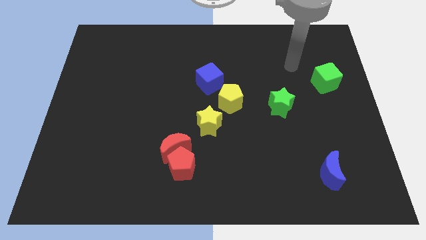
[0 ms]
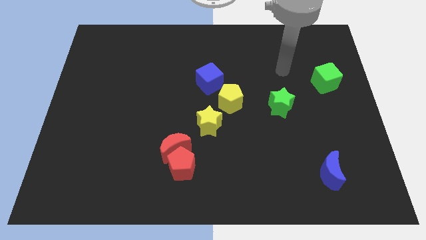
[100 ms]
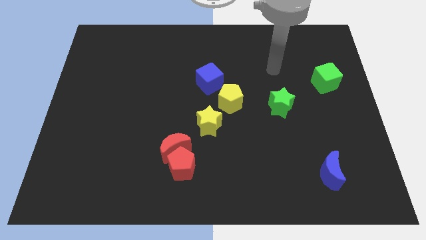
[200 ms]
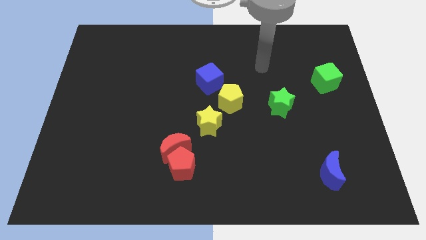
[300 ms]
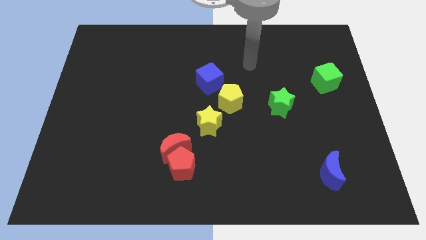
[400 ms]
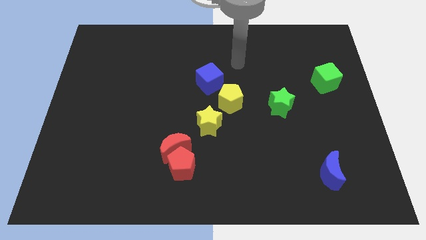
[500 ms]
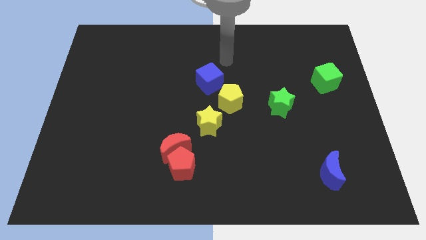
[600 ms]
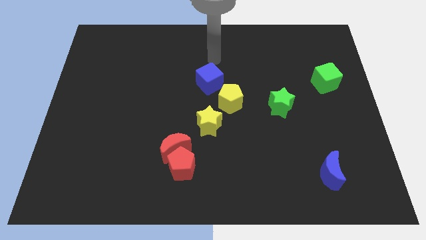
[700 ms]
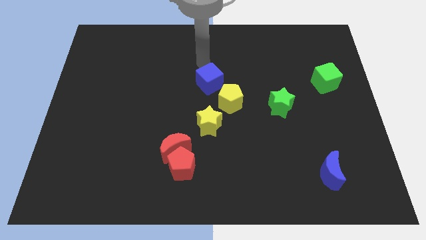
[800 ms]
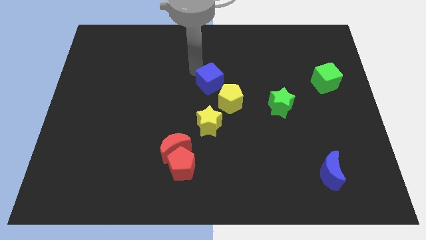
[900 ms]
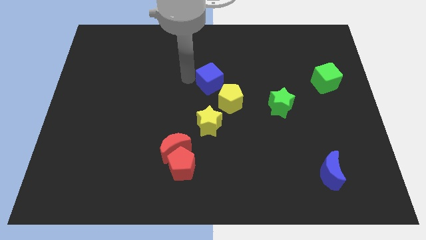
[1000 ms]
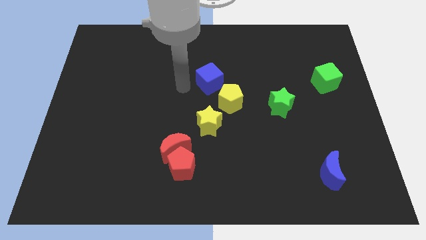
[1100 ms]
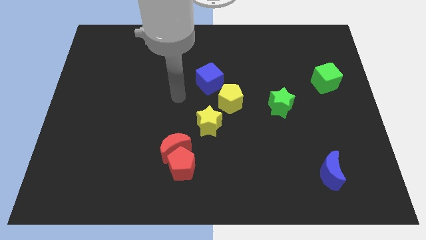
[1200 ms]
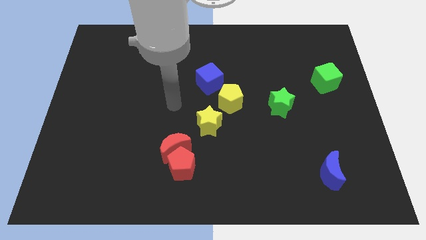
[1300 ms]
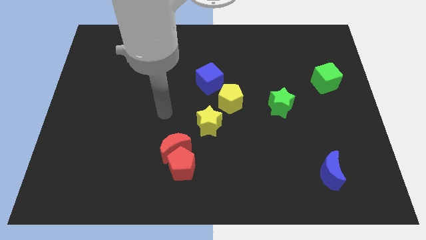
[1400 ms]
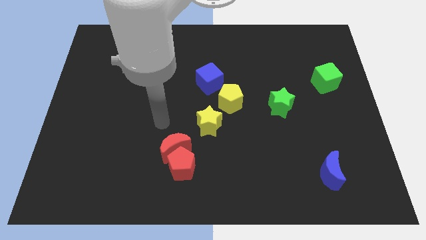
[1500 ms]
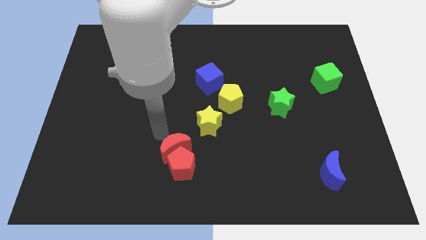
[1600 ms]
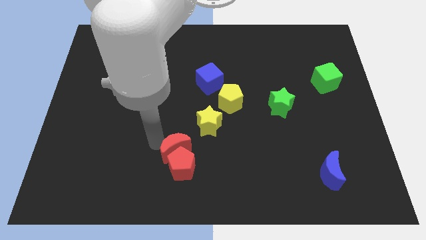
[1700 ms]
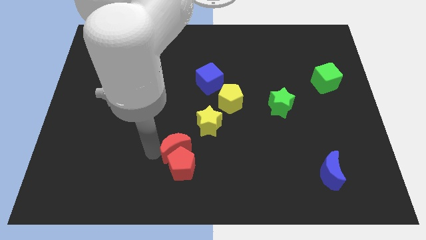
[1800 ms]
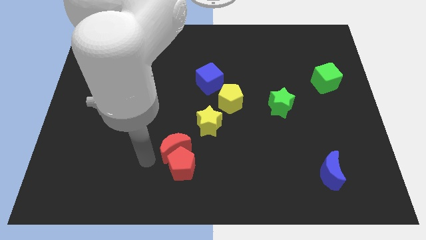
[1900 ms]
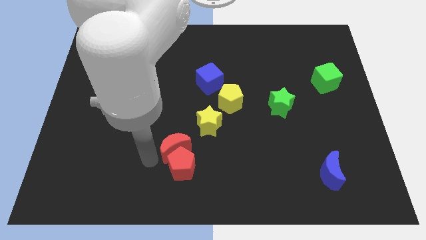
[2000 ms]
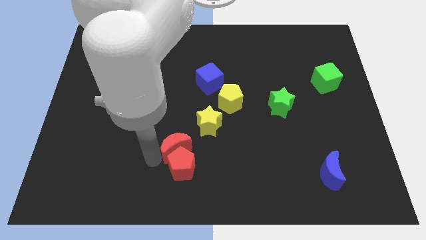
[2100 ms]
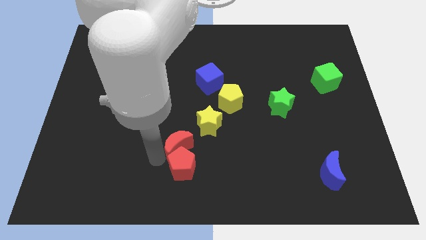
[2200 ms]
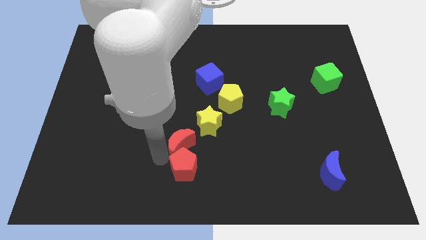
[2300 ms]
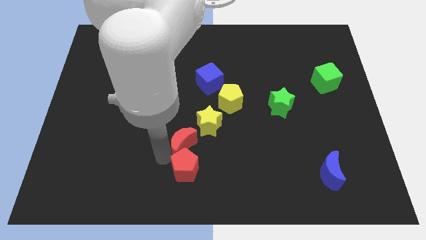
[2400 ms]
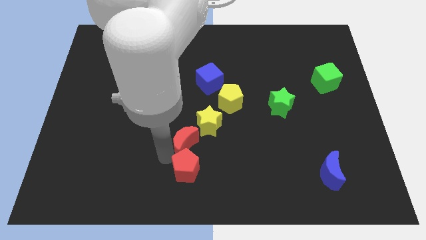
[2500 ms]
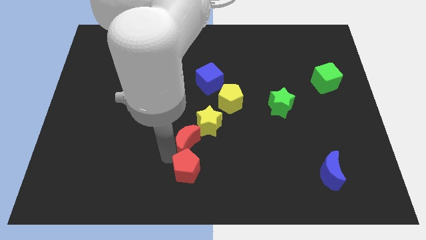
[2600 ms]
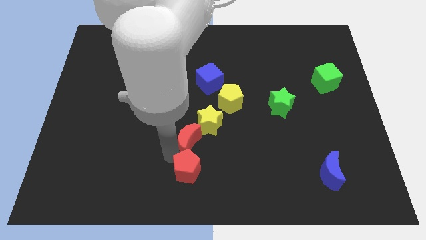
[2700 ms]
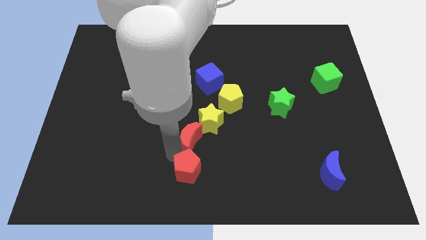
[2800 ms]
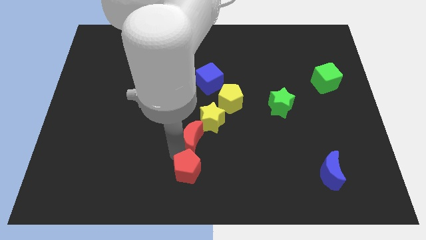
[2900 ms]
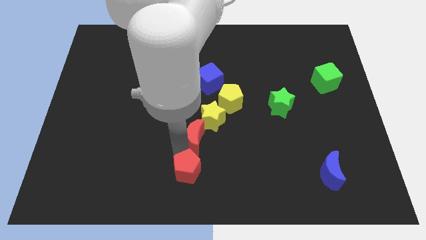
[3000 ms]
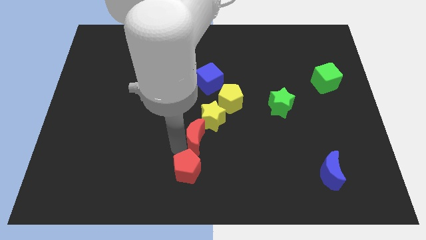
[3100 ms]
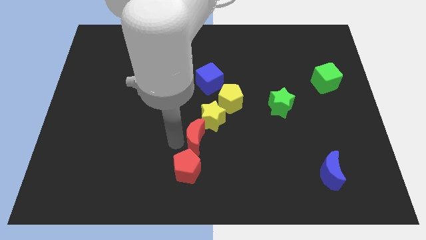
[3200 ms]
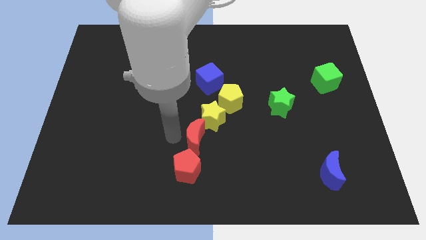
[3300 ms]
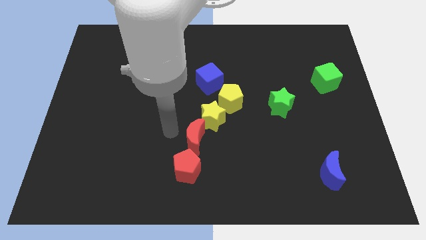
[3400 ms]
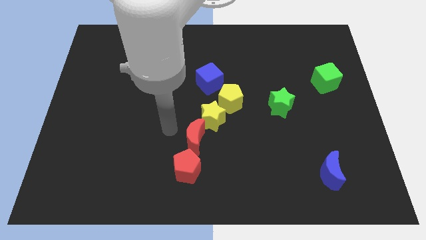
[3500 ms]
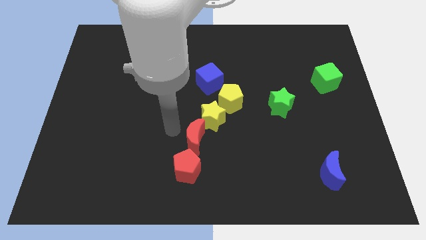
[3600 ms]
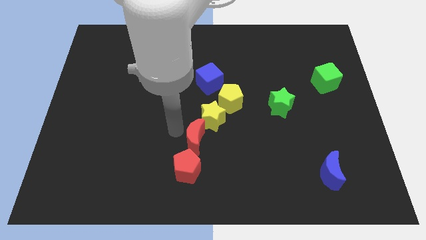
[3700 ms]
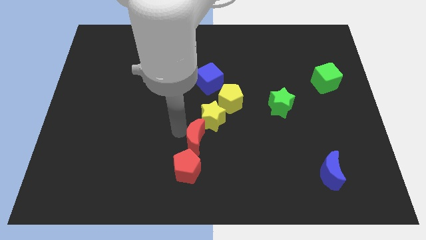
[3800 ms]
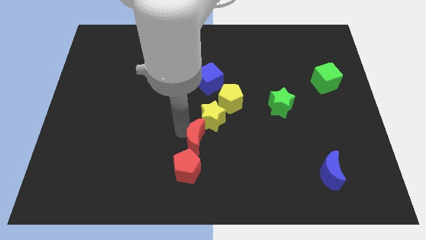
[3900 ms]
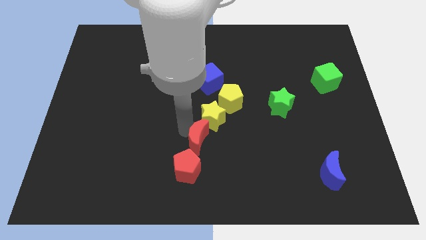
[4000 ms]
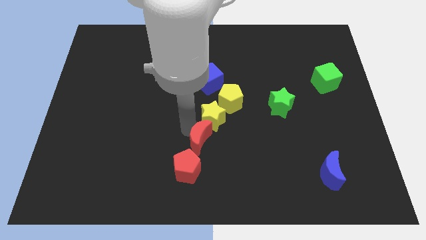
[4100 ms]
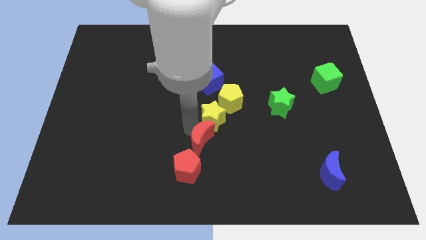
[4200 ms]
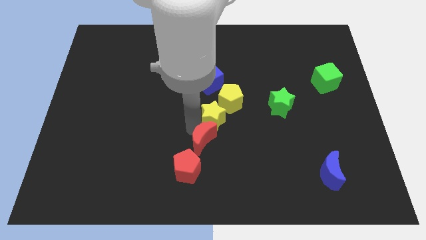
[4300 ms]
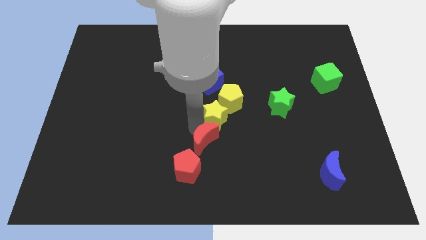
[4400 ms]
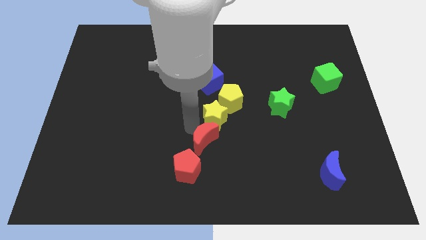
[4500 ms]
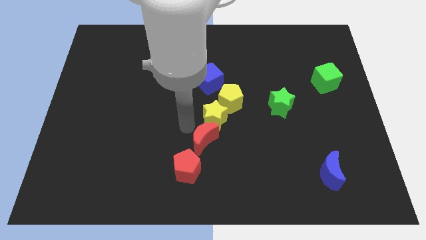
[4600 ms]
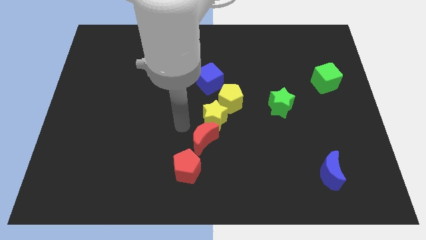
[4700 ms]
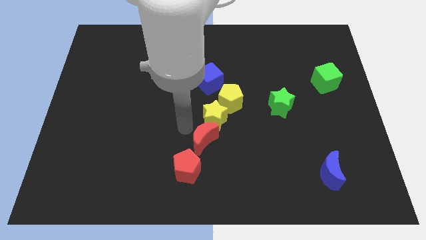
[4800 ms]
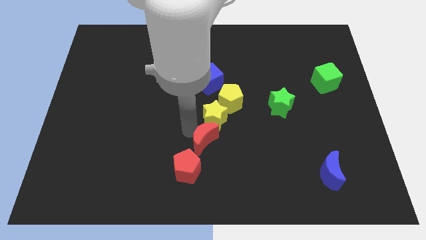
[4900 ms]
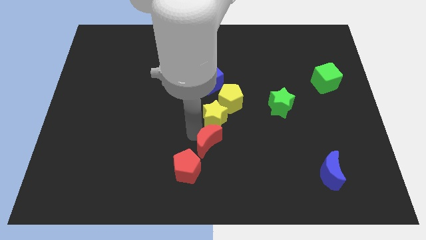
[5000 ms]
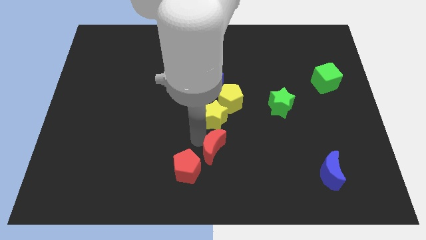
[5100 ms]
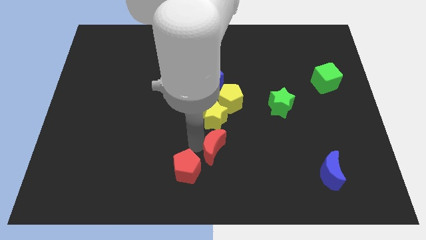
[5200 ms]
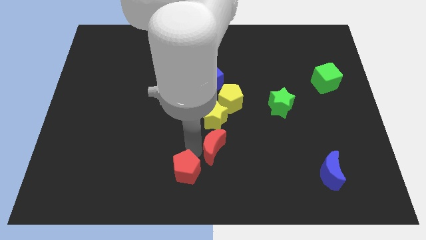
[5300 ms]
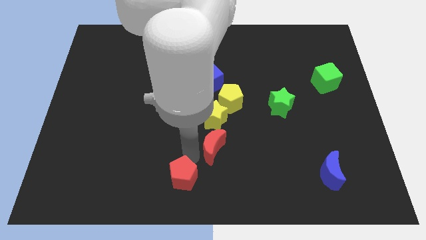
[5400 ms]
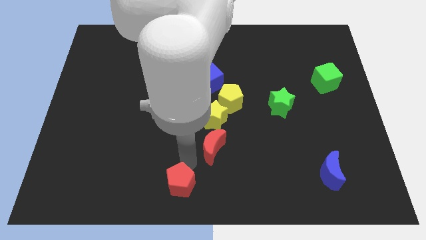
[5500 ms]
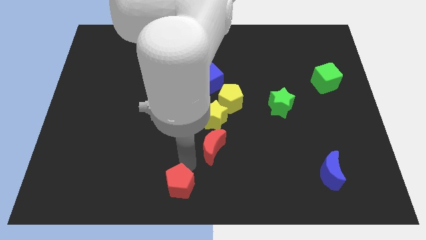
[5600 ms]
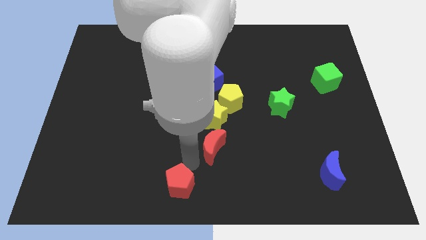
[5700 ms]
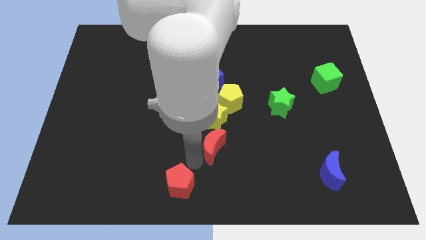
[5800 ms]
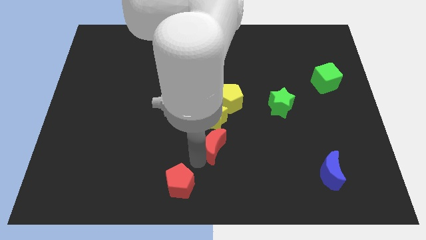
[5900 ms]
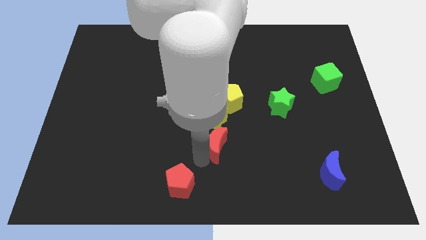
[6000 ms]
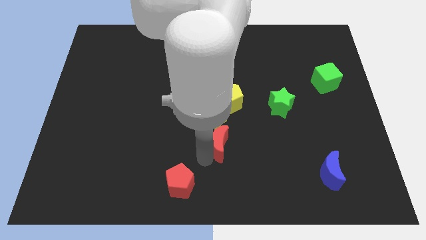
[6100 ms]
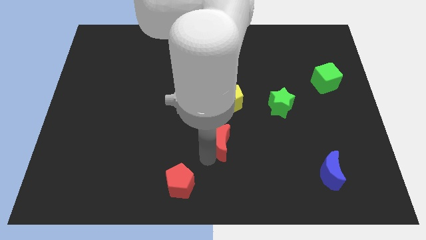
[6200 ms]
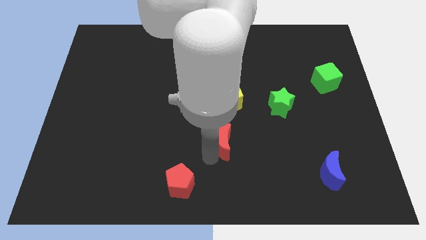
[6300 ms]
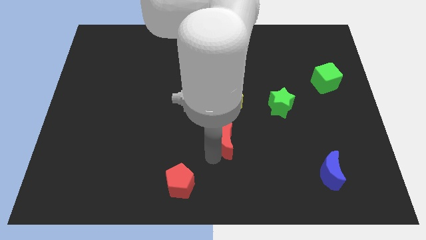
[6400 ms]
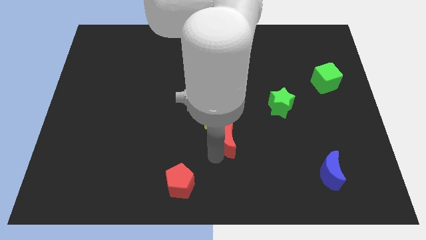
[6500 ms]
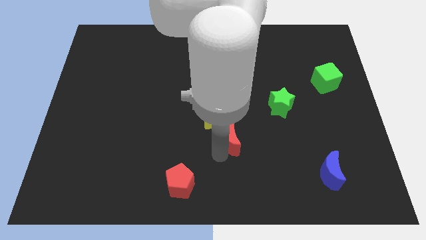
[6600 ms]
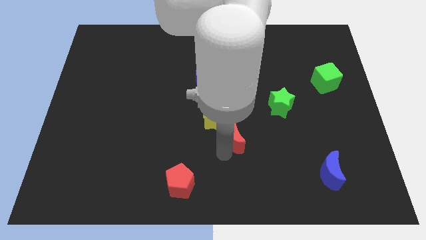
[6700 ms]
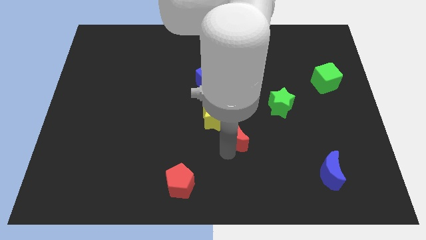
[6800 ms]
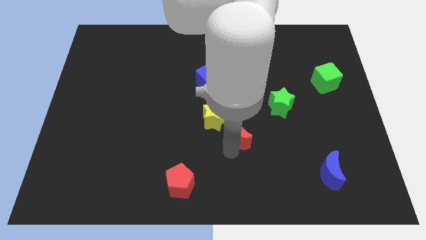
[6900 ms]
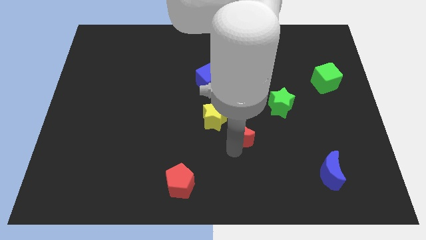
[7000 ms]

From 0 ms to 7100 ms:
slide the red moon to the bottom left of the green star

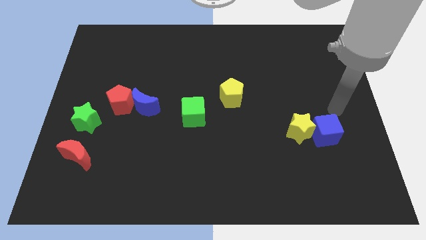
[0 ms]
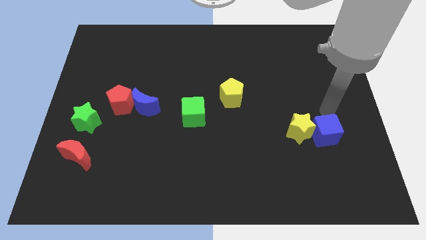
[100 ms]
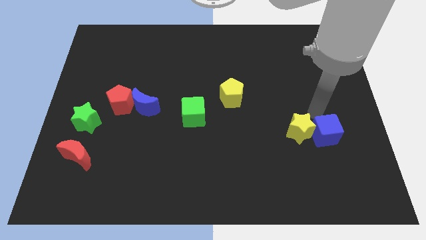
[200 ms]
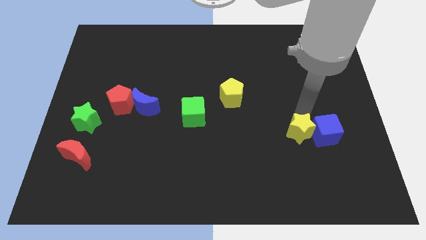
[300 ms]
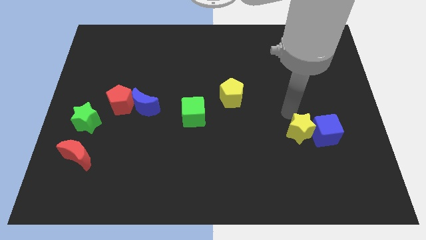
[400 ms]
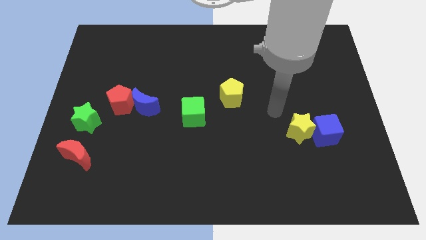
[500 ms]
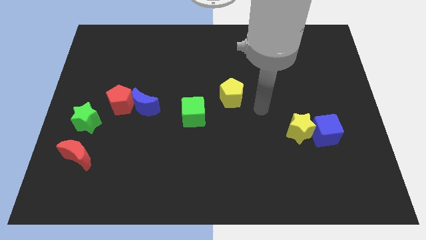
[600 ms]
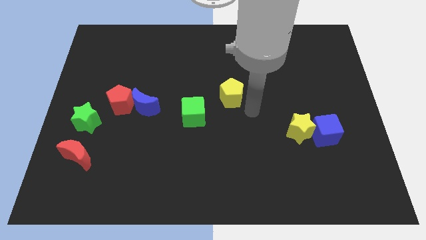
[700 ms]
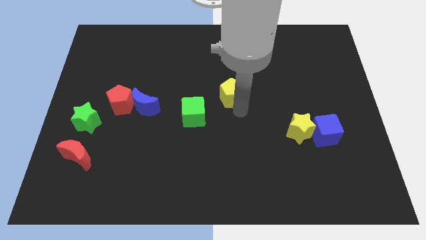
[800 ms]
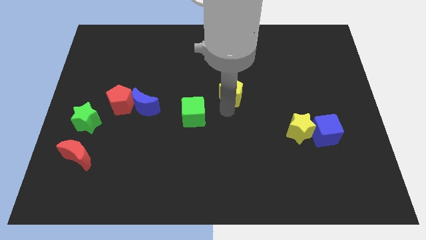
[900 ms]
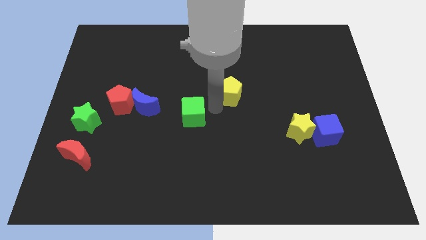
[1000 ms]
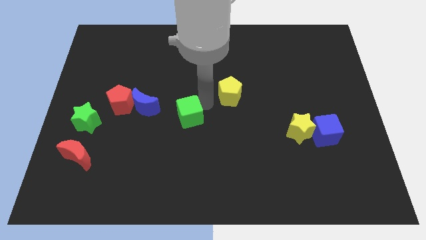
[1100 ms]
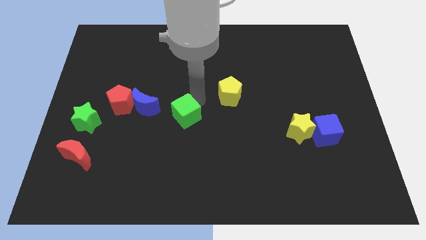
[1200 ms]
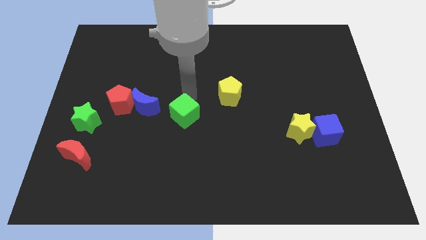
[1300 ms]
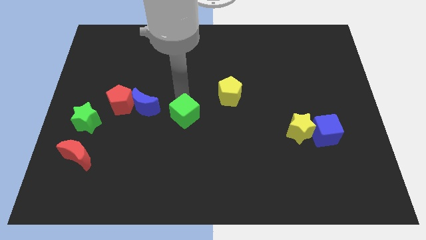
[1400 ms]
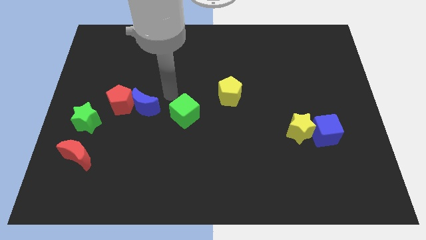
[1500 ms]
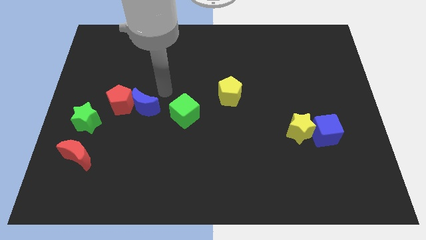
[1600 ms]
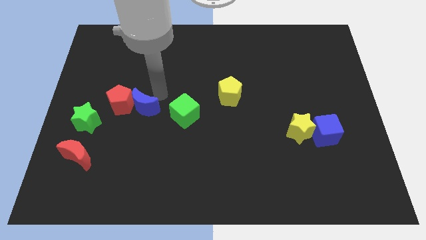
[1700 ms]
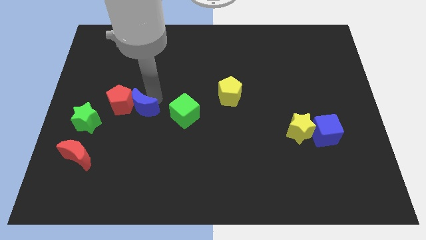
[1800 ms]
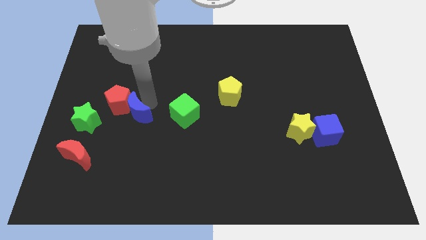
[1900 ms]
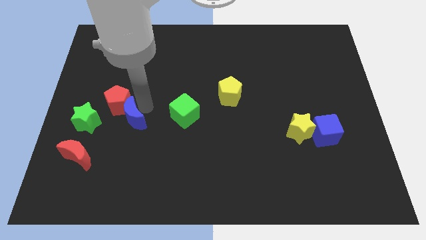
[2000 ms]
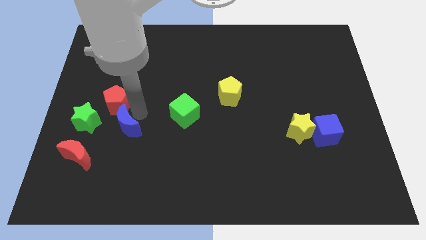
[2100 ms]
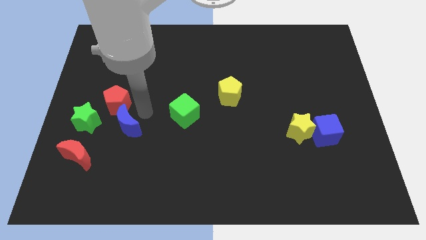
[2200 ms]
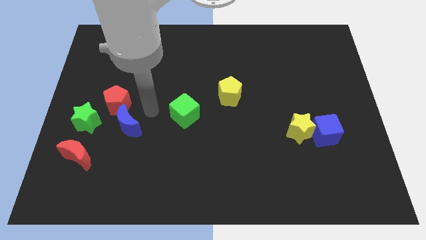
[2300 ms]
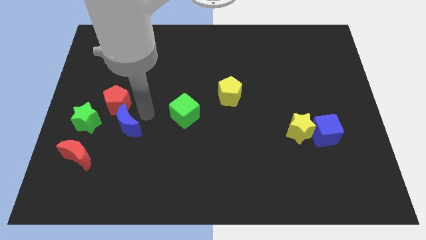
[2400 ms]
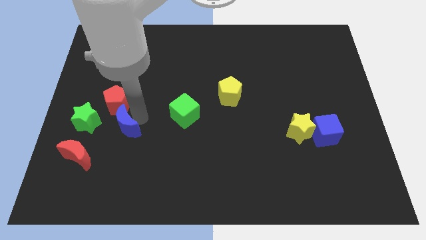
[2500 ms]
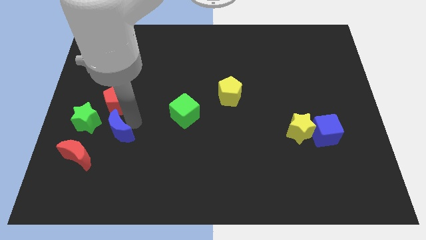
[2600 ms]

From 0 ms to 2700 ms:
move the blue moon diagonally down and to the right of the green star
